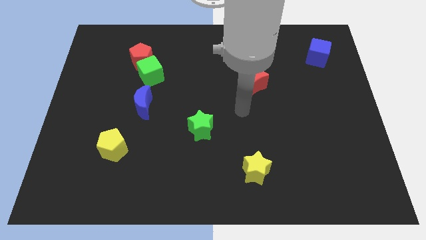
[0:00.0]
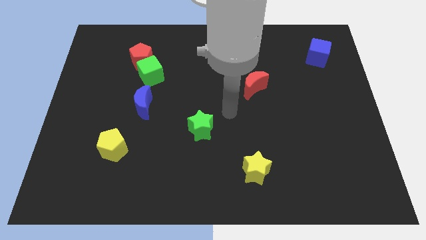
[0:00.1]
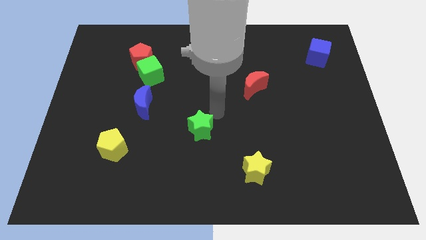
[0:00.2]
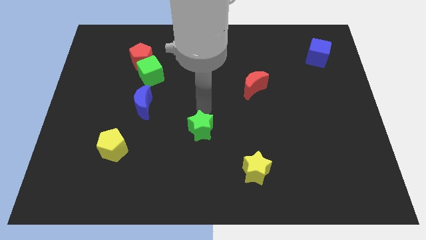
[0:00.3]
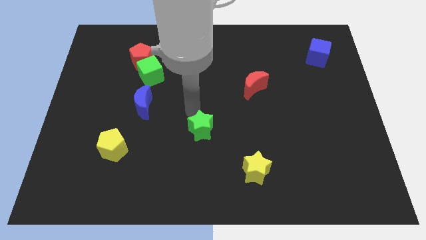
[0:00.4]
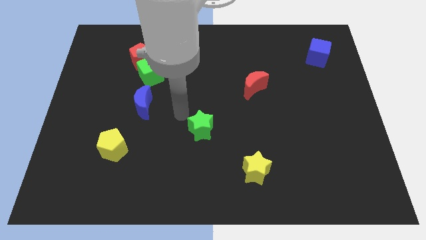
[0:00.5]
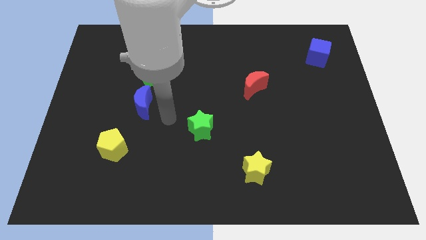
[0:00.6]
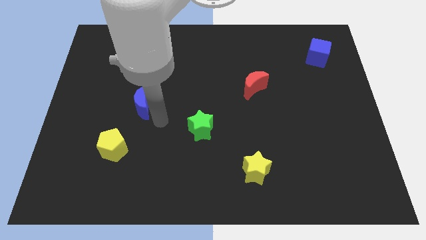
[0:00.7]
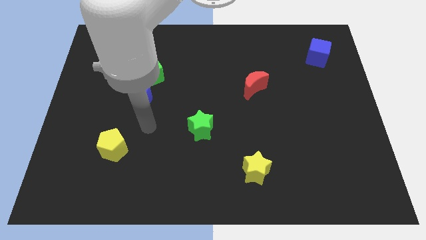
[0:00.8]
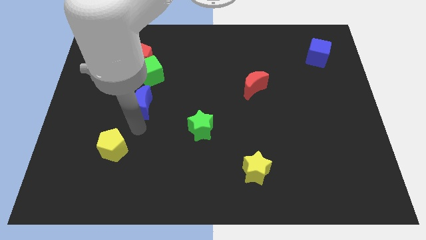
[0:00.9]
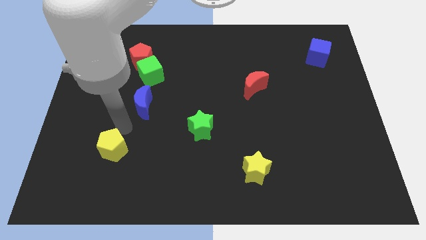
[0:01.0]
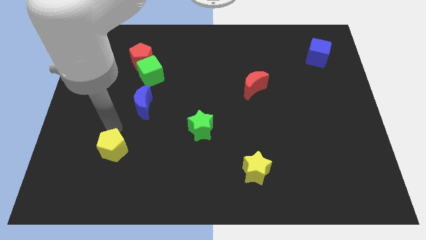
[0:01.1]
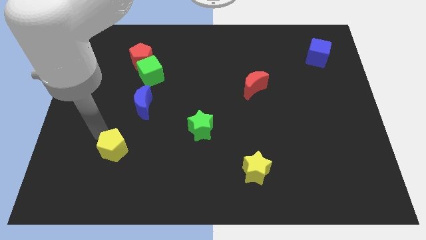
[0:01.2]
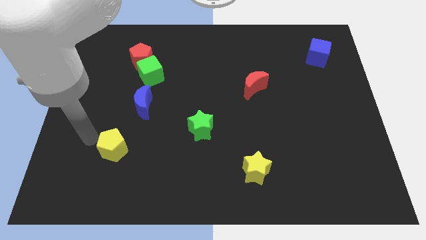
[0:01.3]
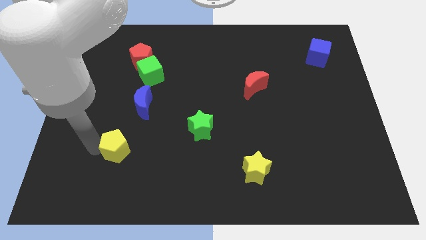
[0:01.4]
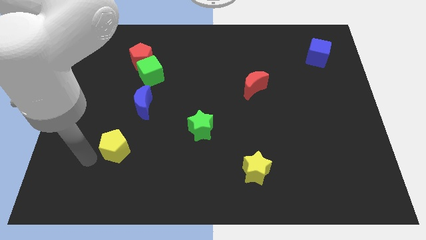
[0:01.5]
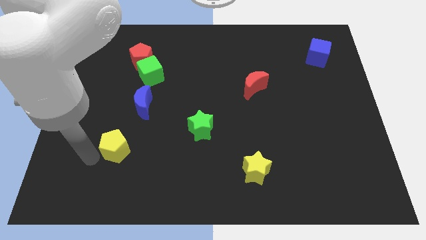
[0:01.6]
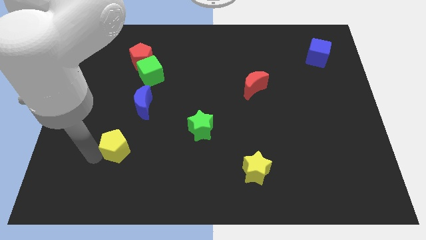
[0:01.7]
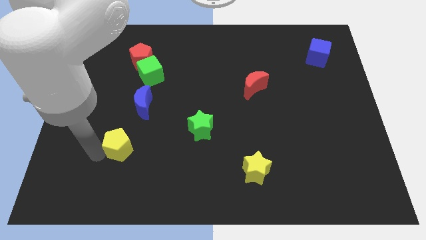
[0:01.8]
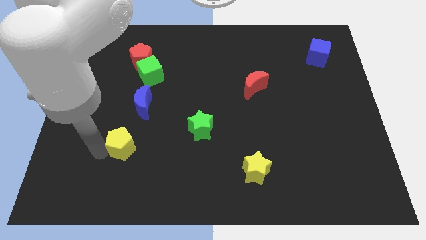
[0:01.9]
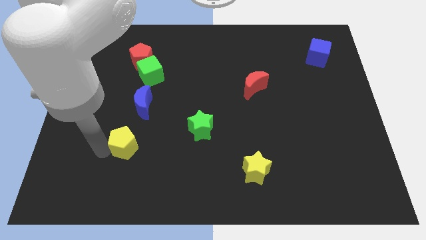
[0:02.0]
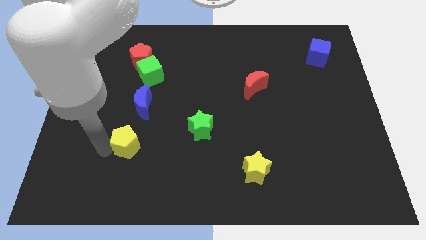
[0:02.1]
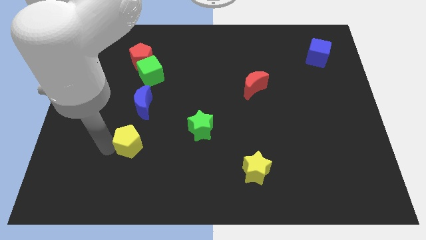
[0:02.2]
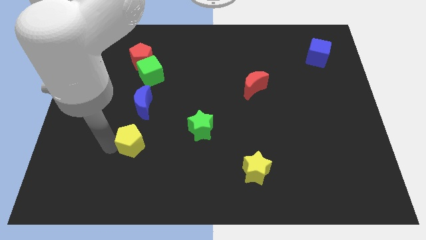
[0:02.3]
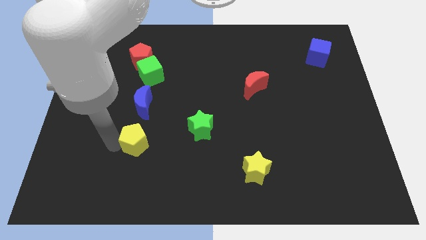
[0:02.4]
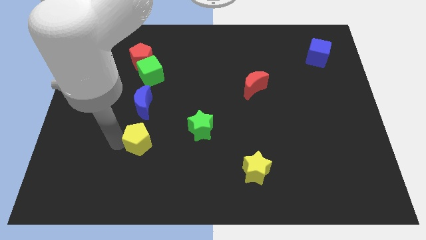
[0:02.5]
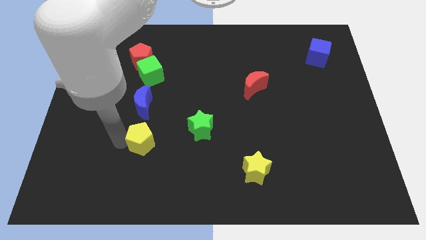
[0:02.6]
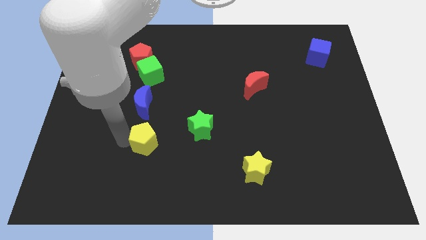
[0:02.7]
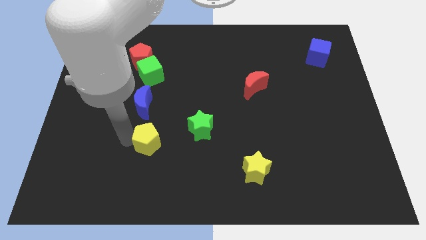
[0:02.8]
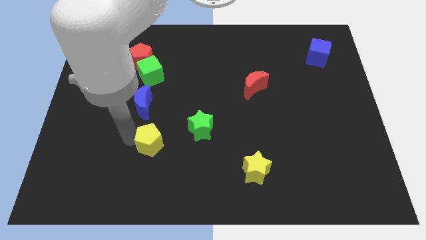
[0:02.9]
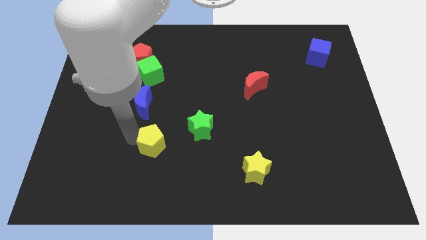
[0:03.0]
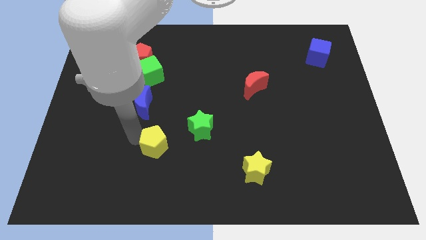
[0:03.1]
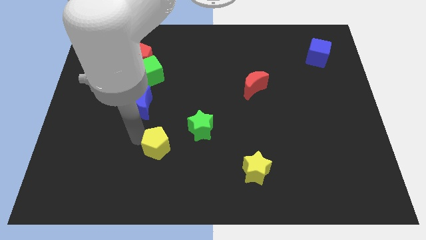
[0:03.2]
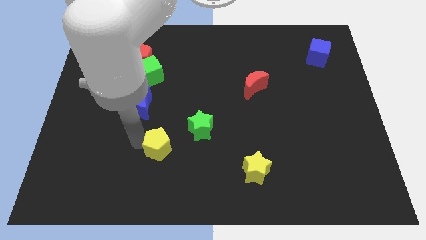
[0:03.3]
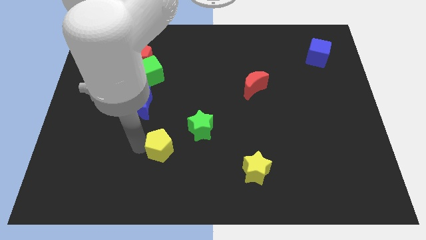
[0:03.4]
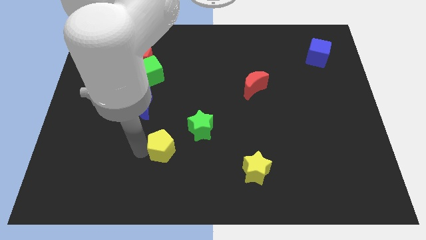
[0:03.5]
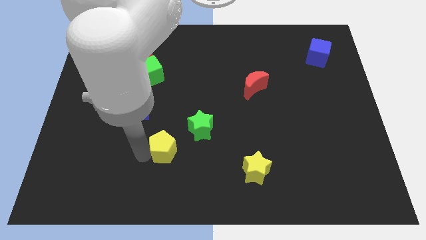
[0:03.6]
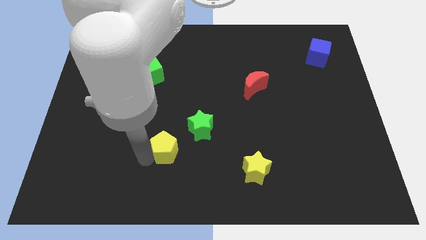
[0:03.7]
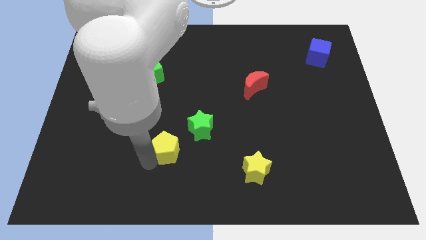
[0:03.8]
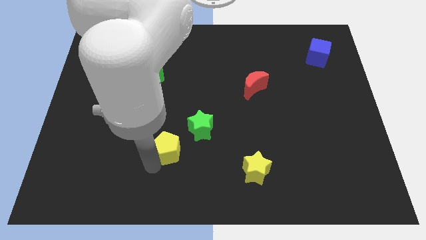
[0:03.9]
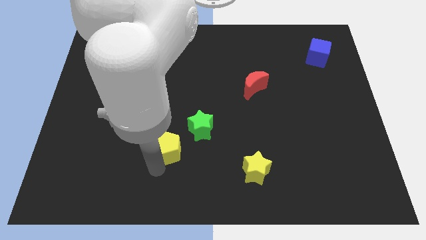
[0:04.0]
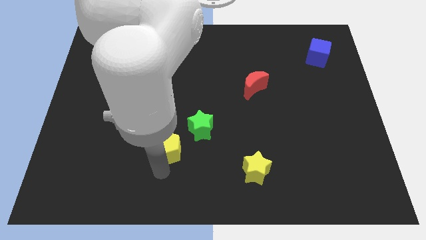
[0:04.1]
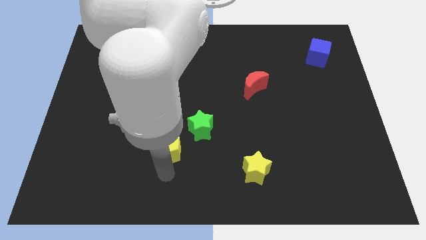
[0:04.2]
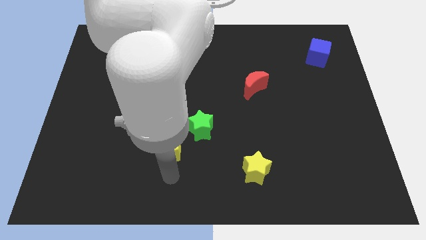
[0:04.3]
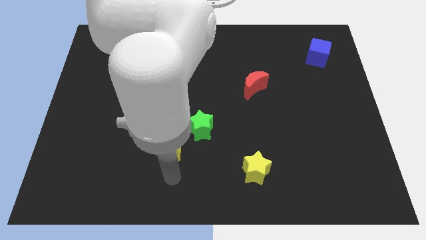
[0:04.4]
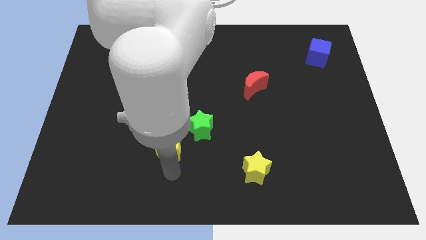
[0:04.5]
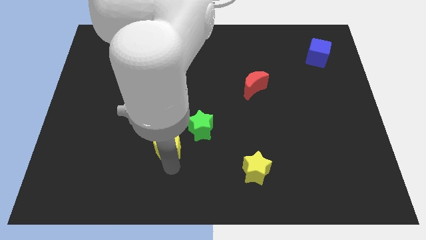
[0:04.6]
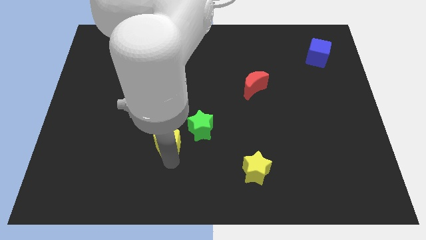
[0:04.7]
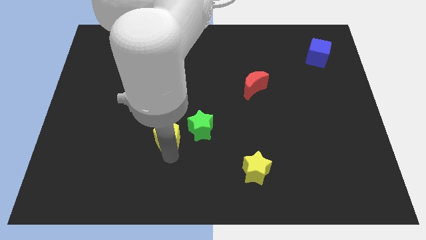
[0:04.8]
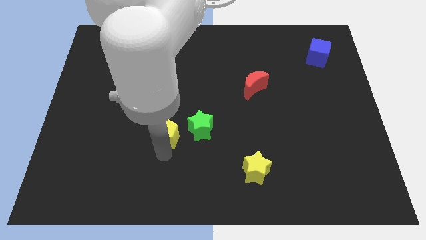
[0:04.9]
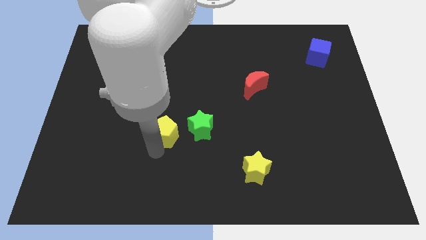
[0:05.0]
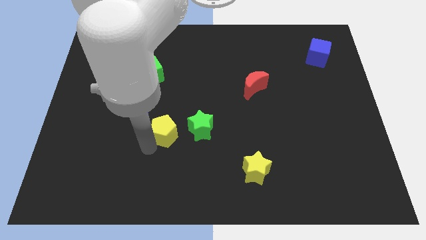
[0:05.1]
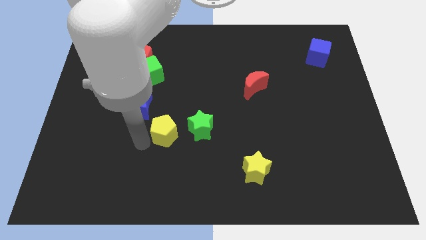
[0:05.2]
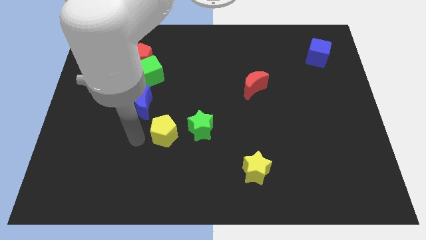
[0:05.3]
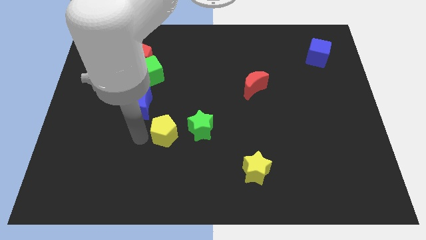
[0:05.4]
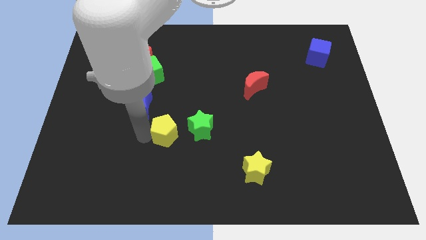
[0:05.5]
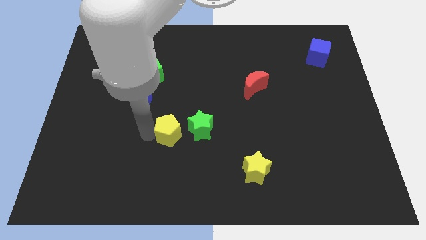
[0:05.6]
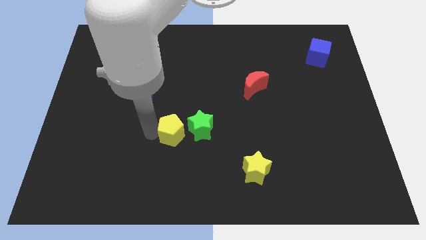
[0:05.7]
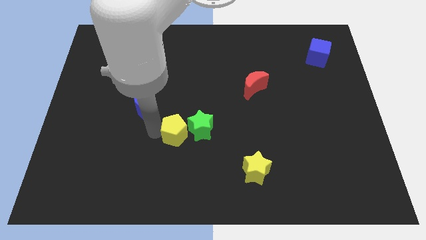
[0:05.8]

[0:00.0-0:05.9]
move the yellow pentagon close to the green star

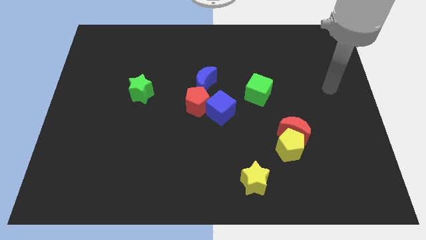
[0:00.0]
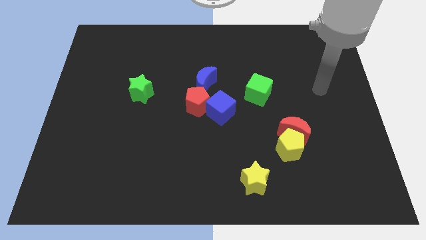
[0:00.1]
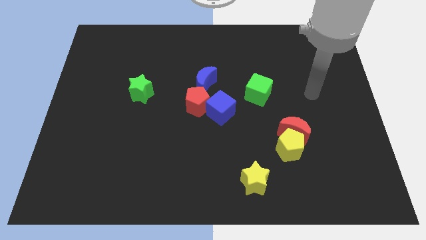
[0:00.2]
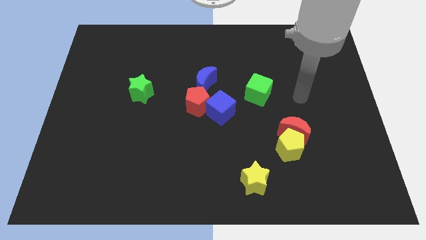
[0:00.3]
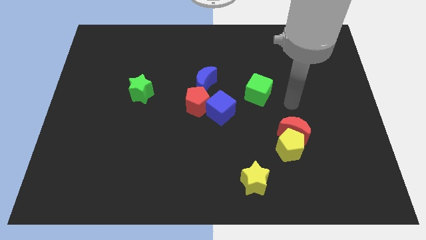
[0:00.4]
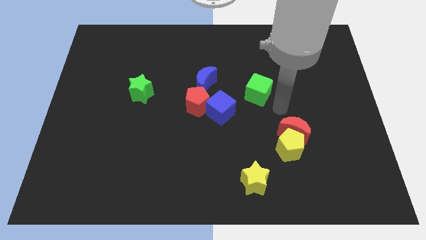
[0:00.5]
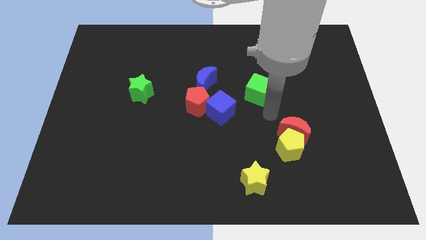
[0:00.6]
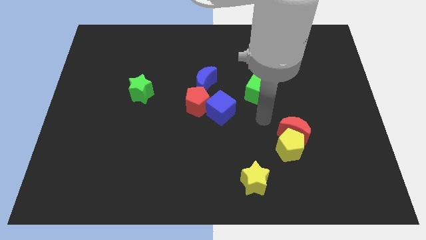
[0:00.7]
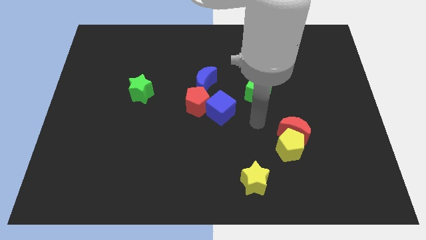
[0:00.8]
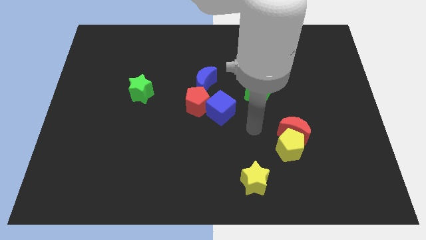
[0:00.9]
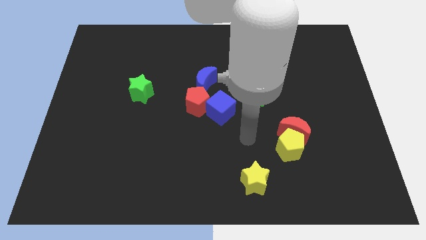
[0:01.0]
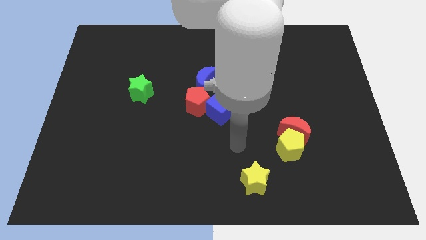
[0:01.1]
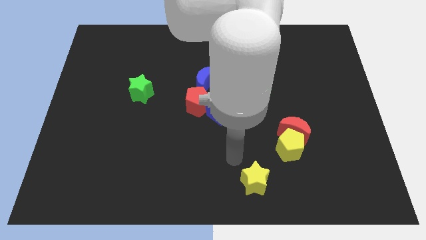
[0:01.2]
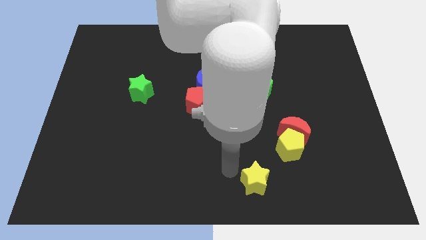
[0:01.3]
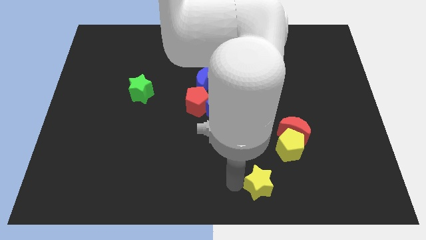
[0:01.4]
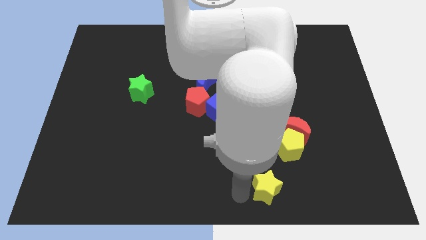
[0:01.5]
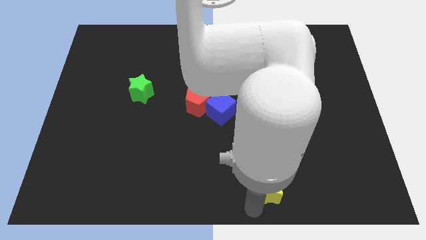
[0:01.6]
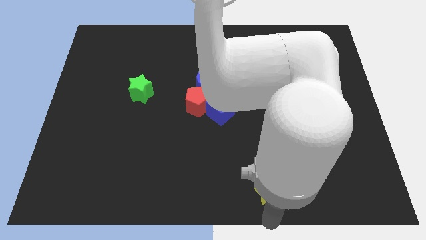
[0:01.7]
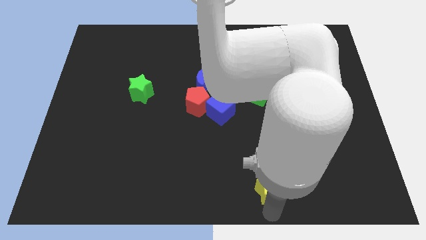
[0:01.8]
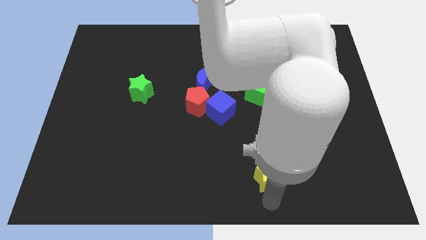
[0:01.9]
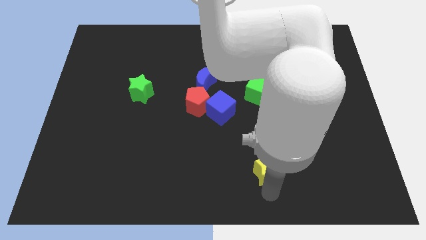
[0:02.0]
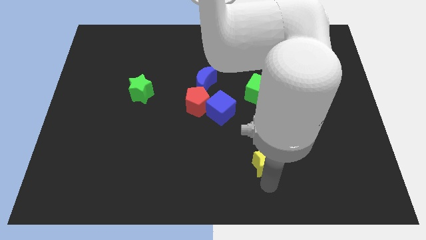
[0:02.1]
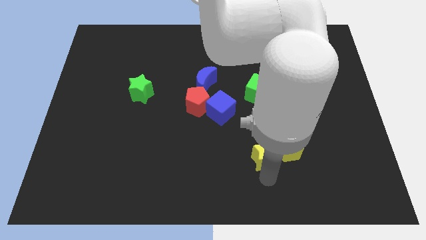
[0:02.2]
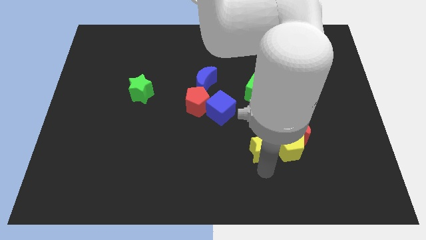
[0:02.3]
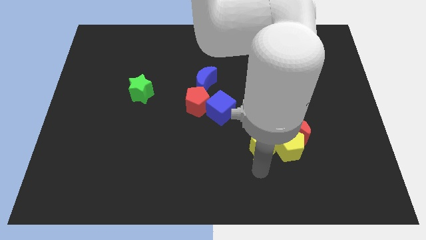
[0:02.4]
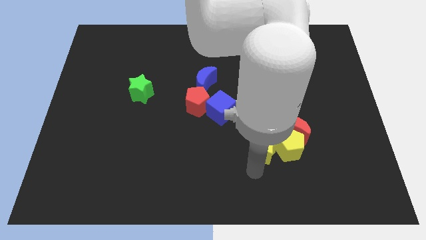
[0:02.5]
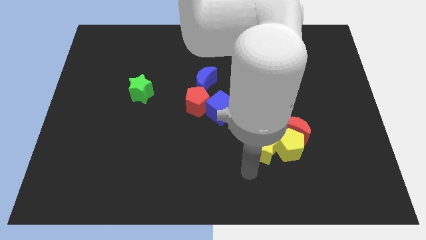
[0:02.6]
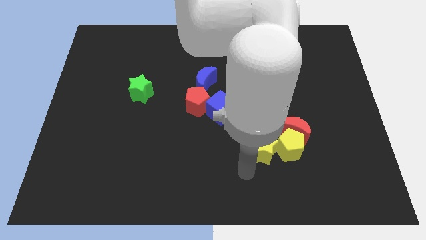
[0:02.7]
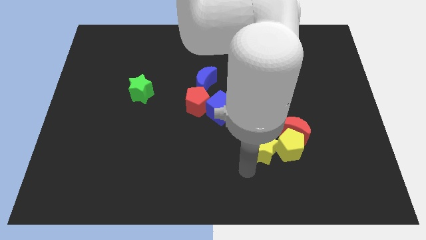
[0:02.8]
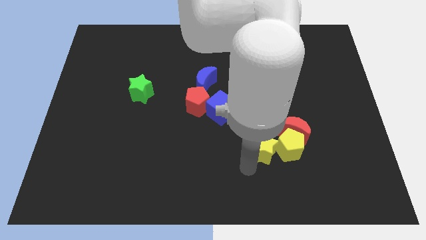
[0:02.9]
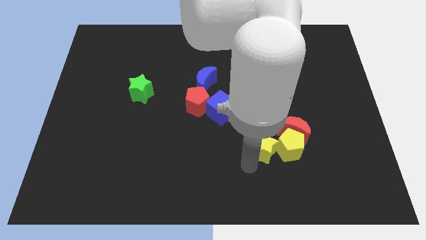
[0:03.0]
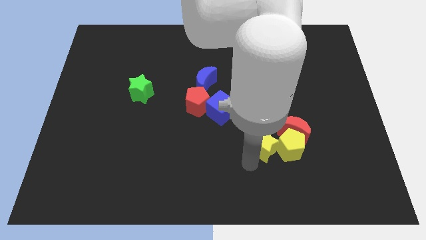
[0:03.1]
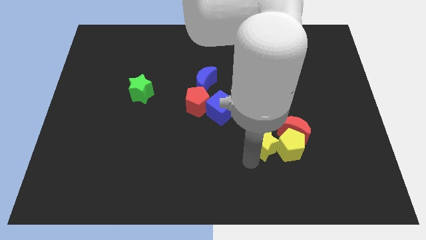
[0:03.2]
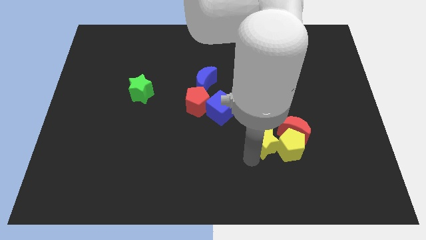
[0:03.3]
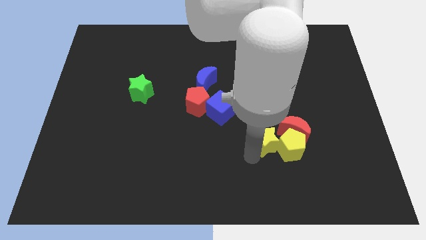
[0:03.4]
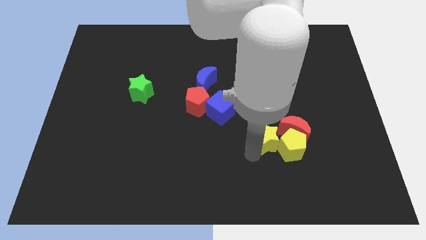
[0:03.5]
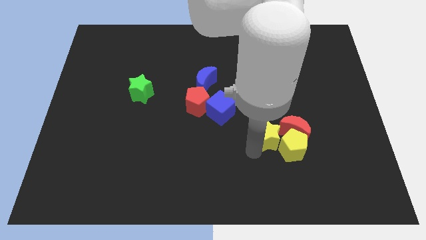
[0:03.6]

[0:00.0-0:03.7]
push the yellow star towards the red moon
